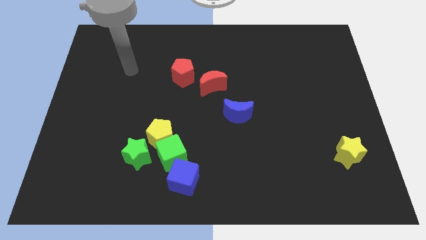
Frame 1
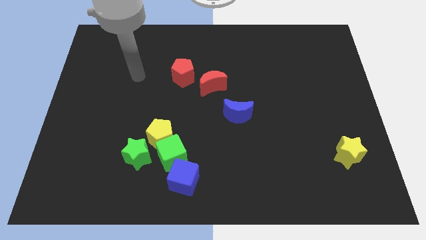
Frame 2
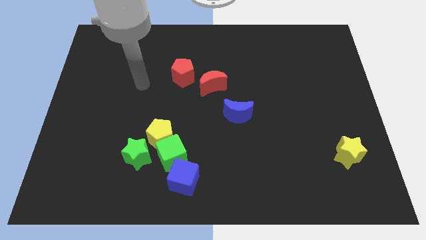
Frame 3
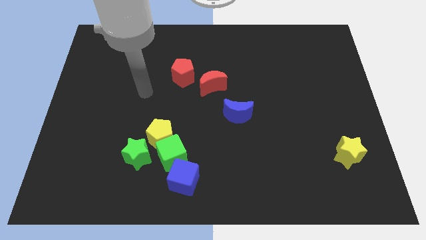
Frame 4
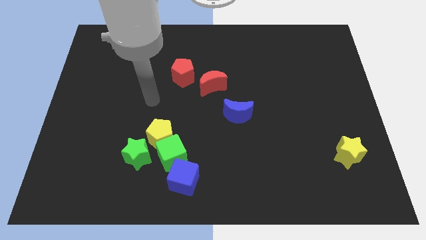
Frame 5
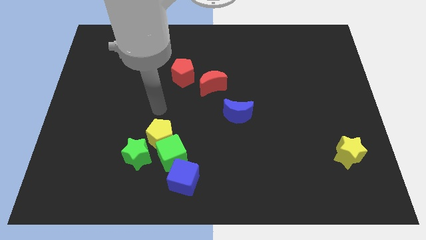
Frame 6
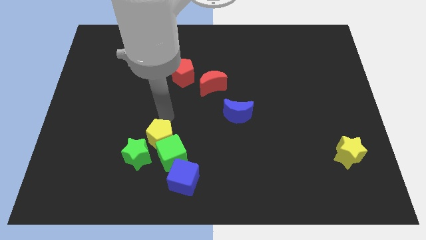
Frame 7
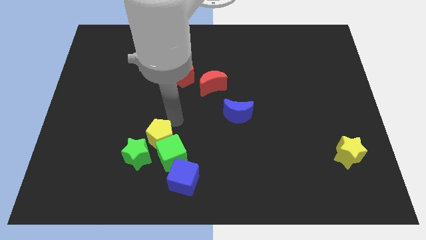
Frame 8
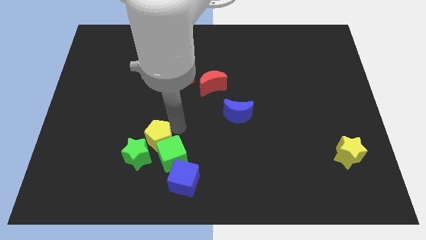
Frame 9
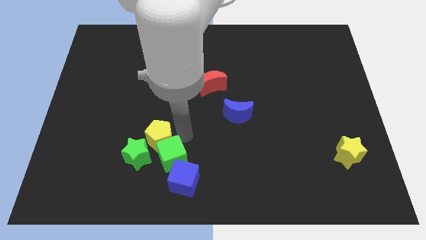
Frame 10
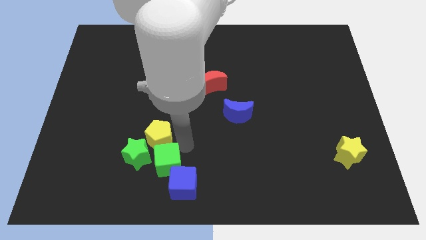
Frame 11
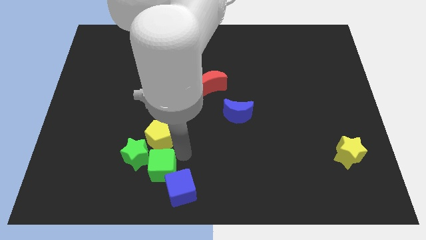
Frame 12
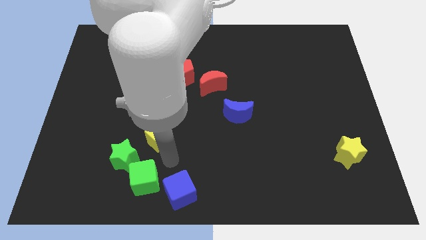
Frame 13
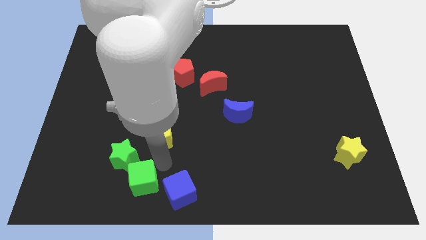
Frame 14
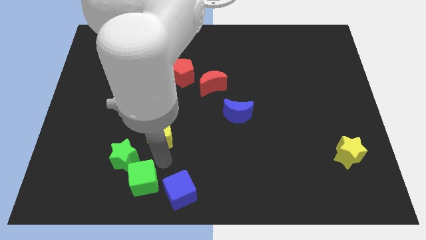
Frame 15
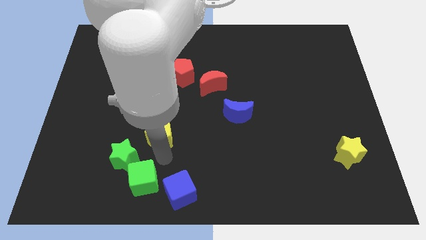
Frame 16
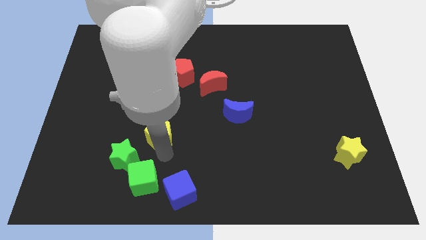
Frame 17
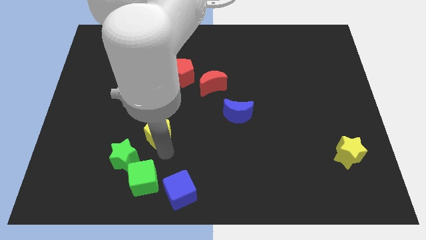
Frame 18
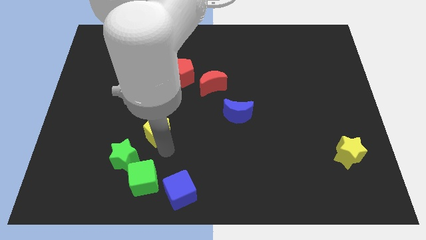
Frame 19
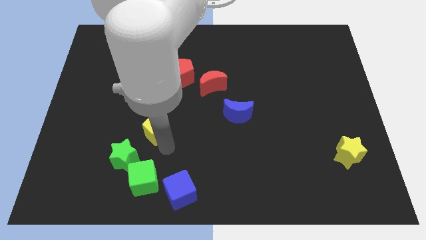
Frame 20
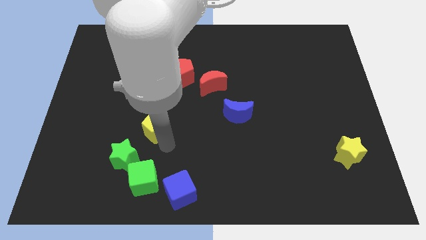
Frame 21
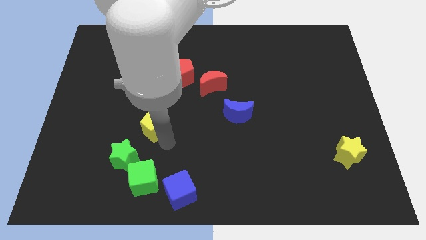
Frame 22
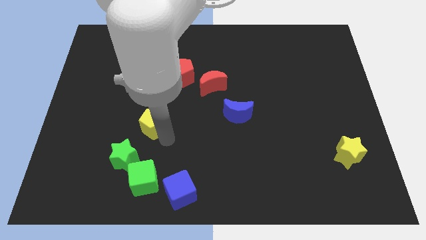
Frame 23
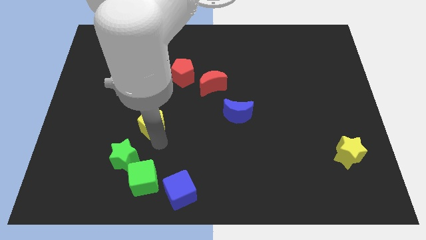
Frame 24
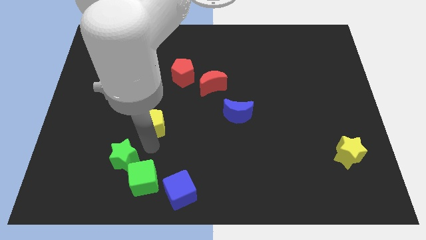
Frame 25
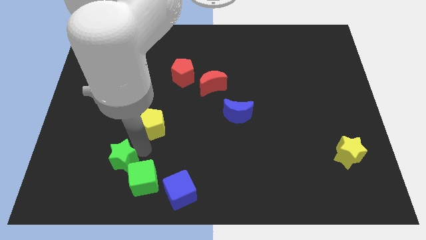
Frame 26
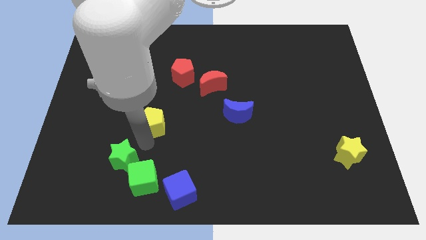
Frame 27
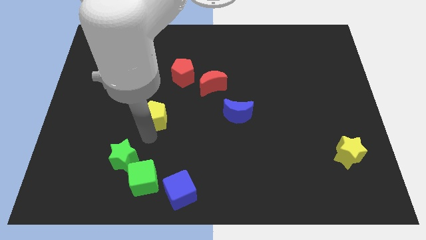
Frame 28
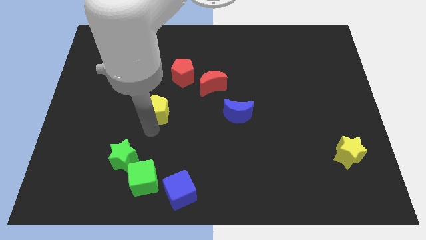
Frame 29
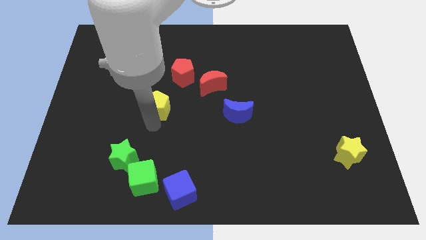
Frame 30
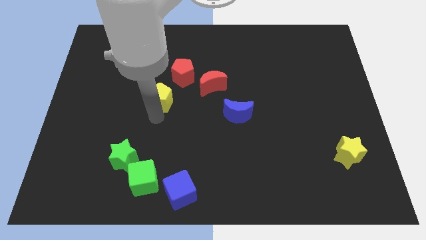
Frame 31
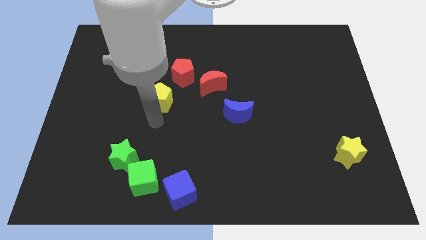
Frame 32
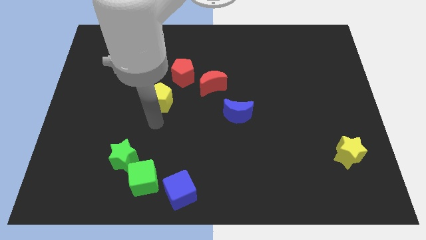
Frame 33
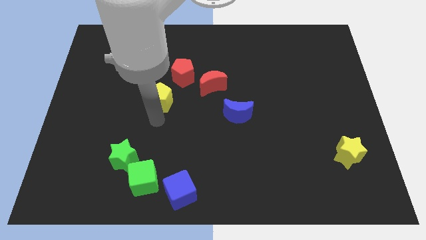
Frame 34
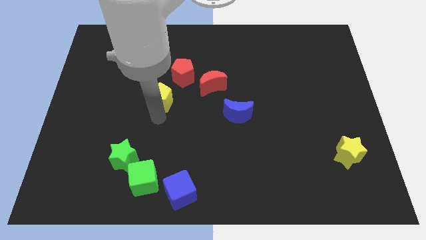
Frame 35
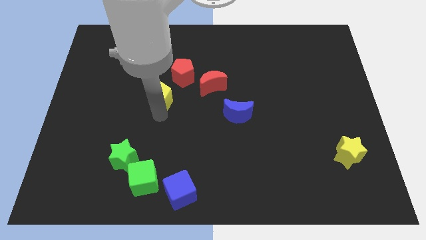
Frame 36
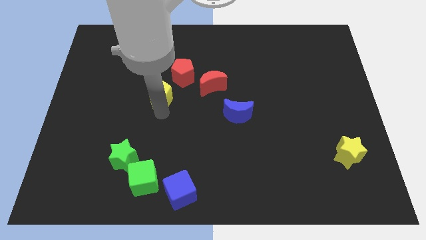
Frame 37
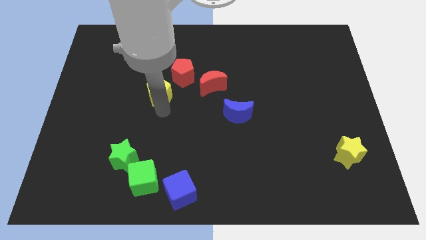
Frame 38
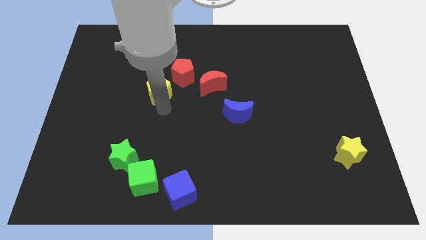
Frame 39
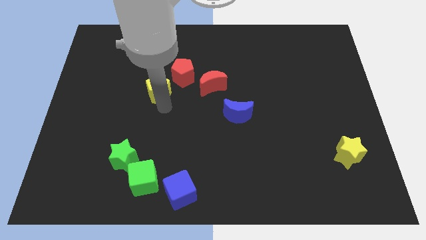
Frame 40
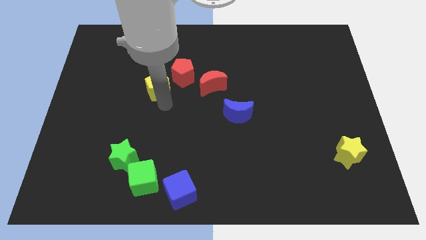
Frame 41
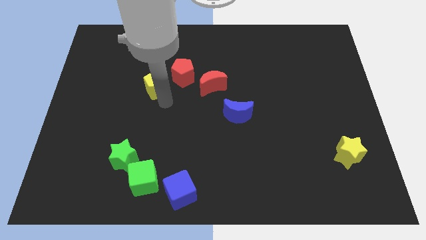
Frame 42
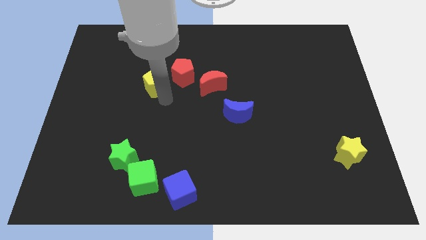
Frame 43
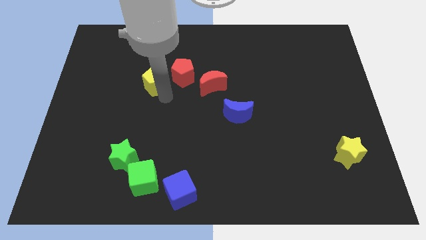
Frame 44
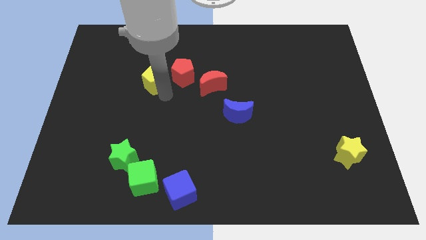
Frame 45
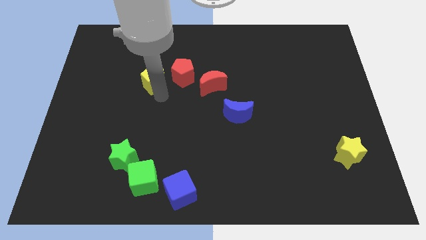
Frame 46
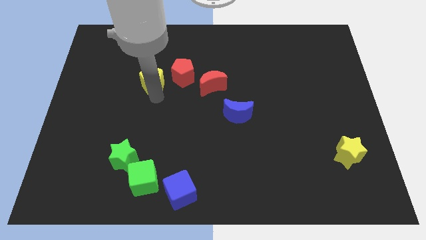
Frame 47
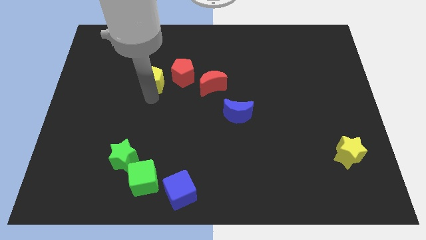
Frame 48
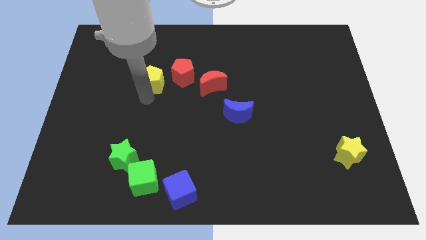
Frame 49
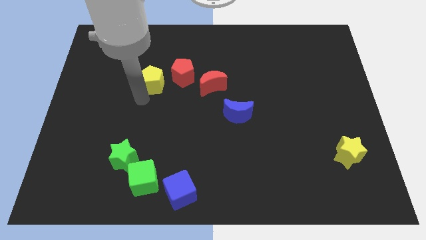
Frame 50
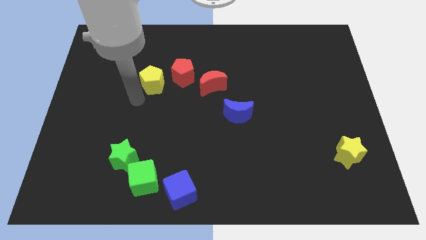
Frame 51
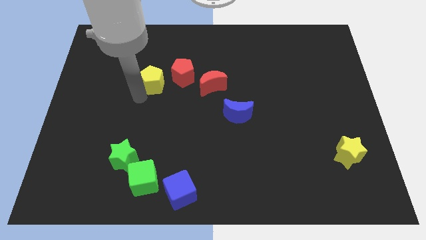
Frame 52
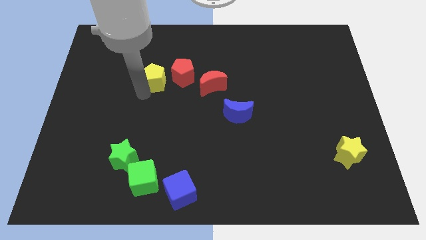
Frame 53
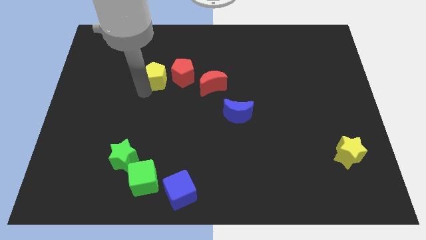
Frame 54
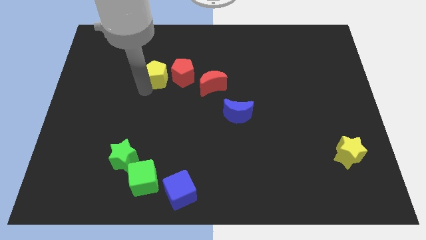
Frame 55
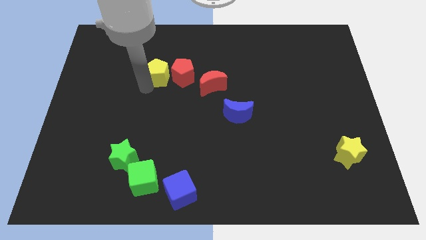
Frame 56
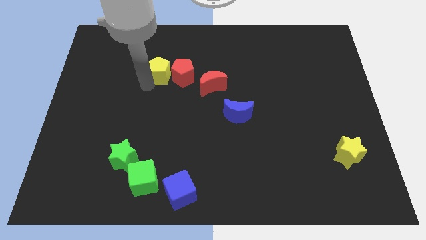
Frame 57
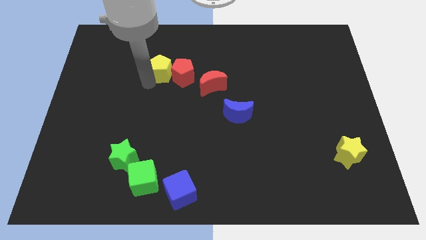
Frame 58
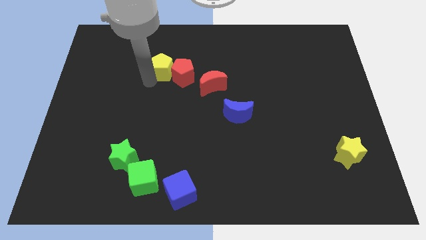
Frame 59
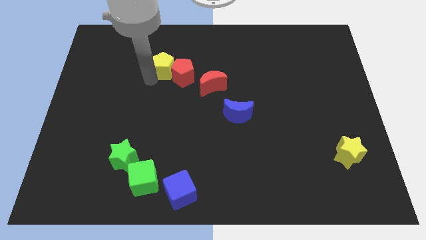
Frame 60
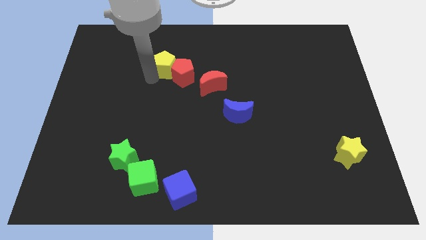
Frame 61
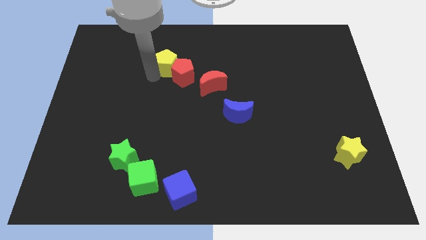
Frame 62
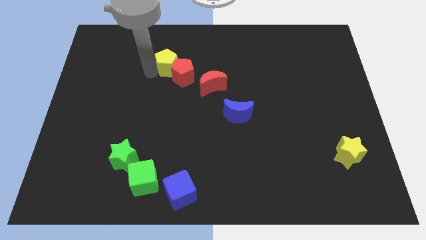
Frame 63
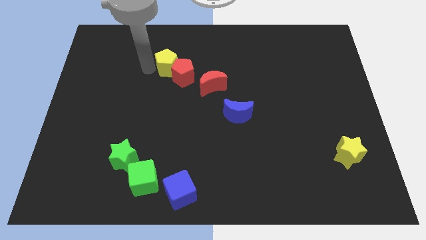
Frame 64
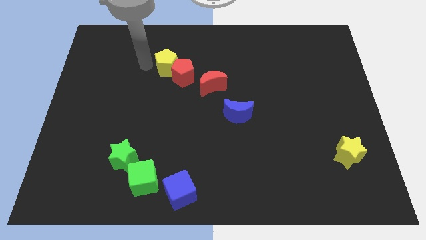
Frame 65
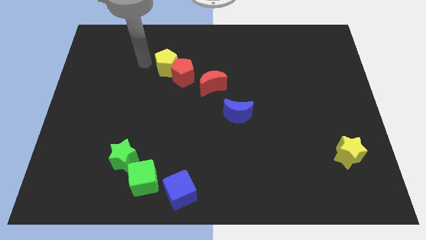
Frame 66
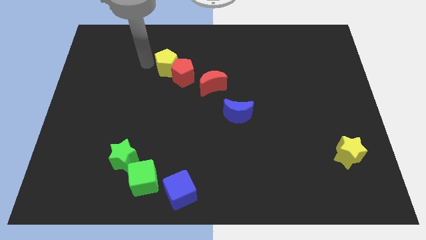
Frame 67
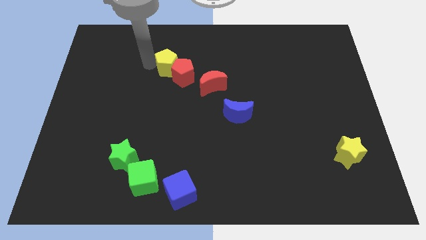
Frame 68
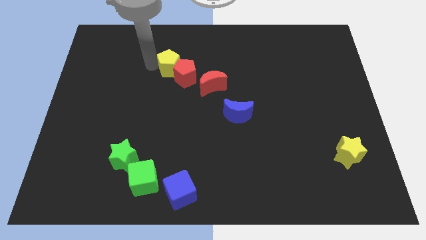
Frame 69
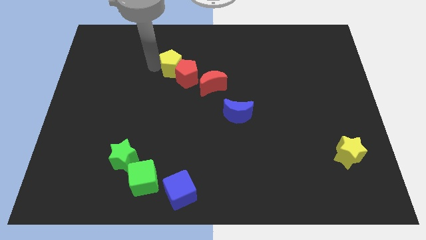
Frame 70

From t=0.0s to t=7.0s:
push the yellow pentagon to the top left side of the red moon
